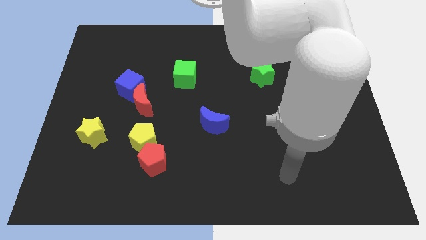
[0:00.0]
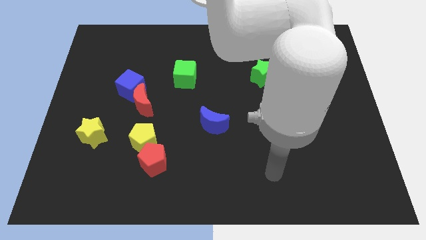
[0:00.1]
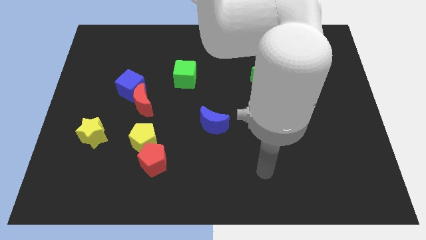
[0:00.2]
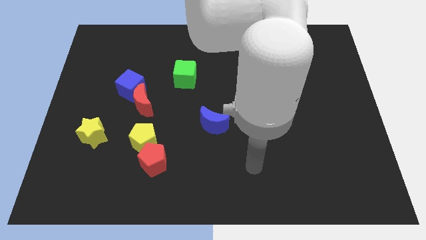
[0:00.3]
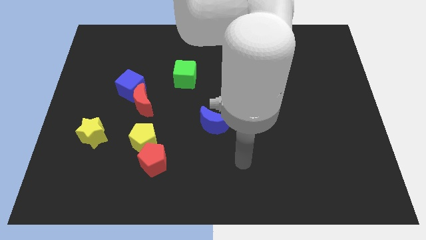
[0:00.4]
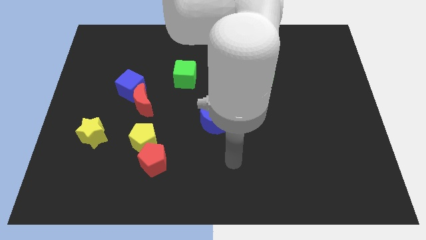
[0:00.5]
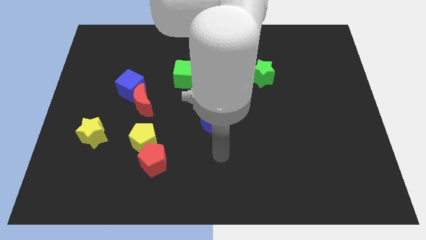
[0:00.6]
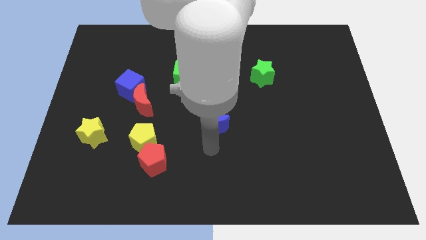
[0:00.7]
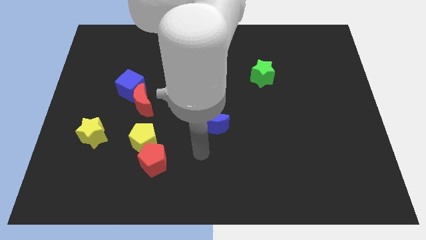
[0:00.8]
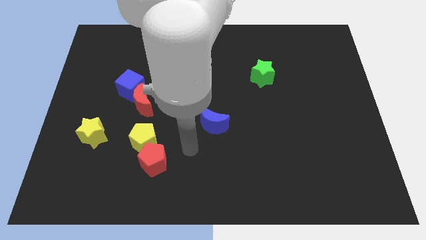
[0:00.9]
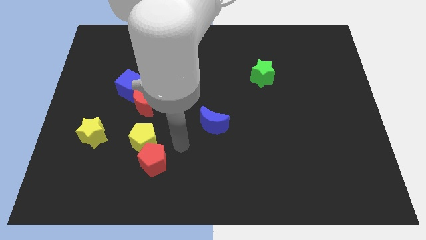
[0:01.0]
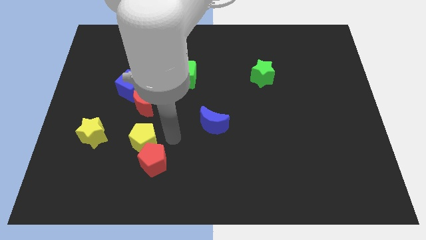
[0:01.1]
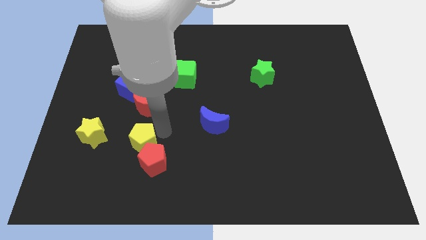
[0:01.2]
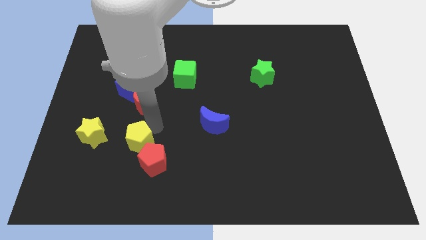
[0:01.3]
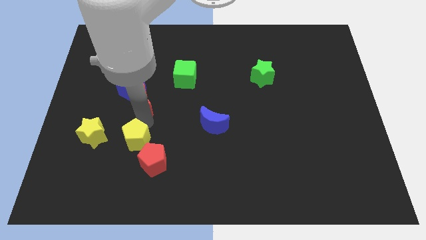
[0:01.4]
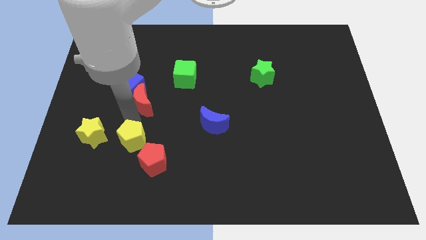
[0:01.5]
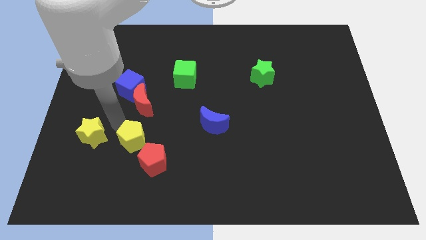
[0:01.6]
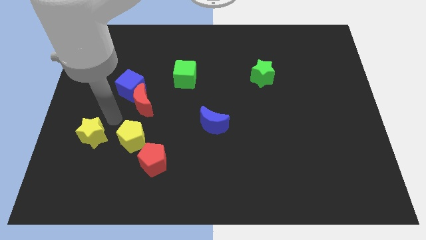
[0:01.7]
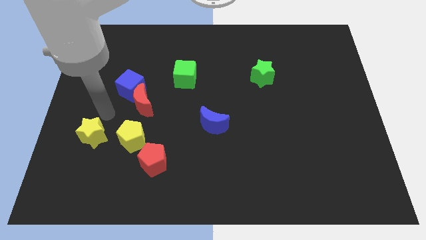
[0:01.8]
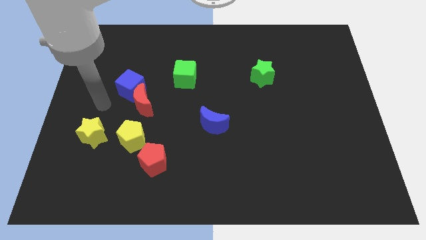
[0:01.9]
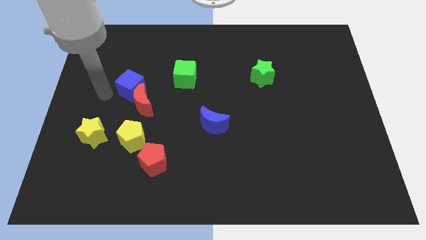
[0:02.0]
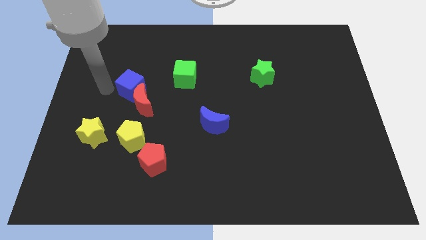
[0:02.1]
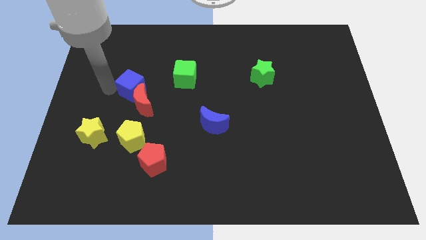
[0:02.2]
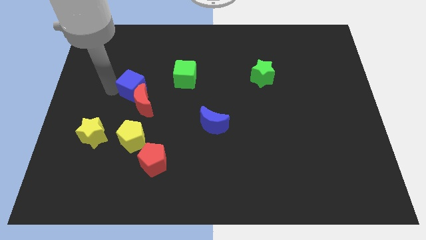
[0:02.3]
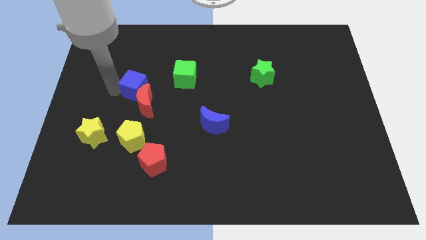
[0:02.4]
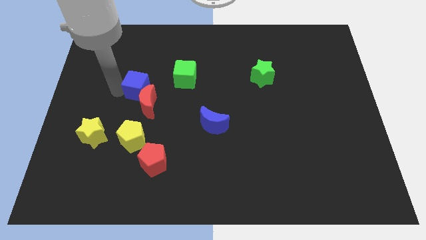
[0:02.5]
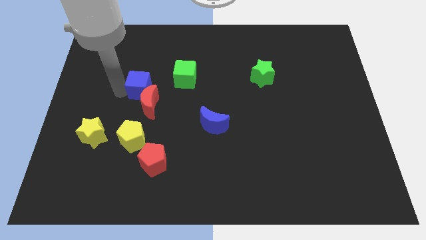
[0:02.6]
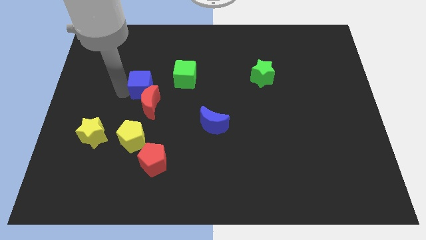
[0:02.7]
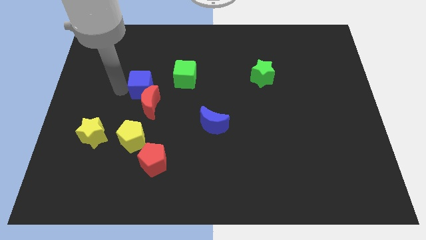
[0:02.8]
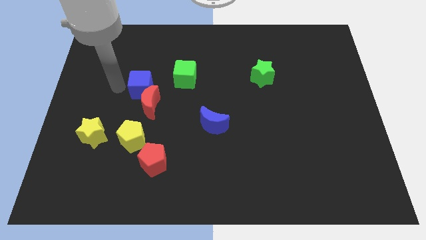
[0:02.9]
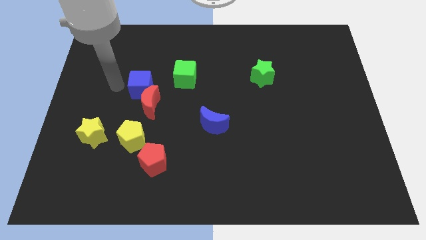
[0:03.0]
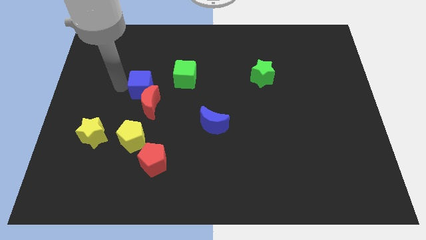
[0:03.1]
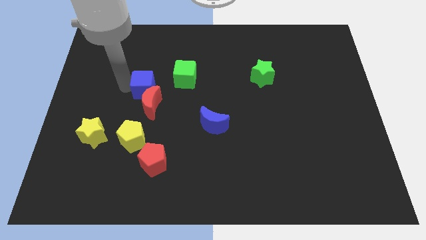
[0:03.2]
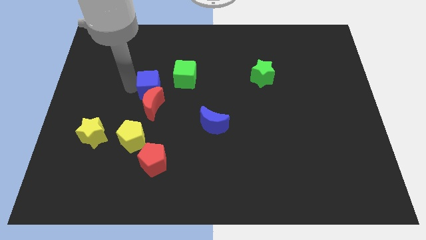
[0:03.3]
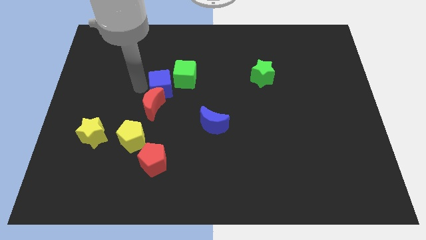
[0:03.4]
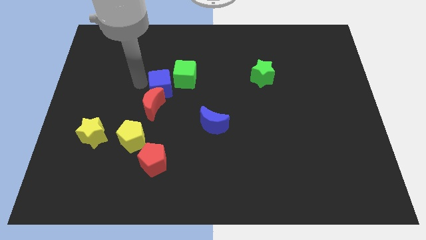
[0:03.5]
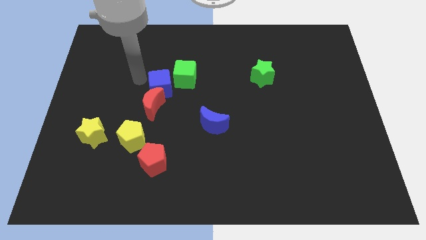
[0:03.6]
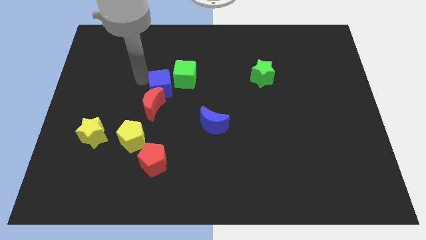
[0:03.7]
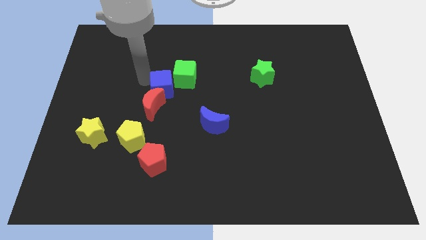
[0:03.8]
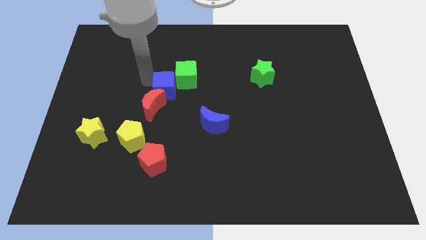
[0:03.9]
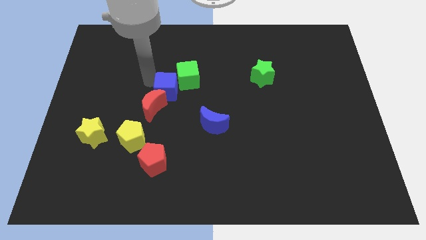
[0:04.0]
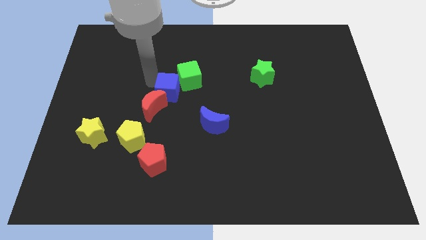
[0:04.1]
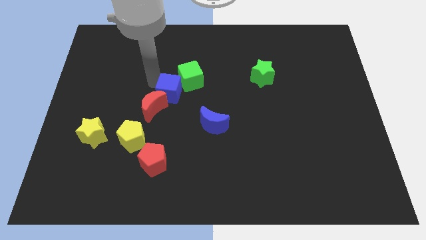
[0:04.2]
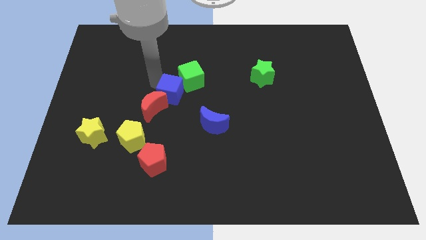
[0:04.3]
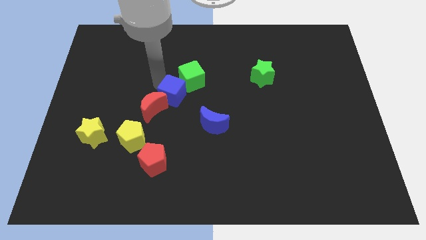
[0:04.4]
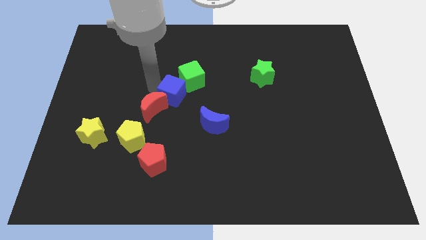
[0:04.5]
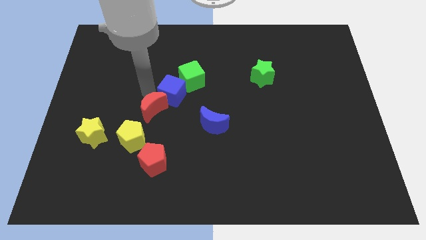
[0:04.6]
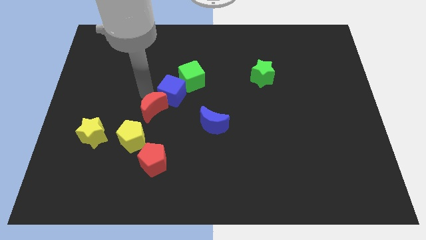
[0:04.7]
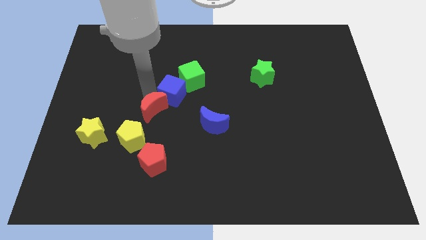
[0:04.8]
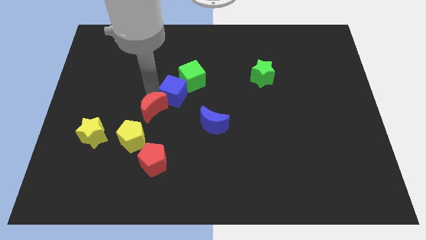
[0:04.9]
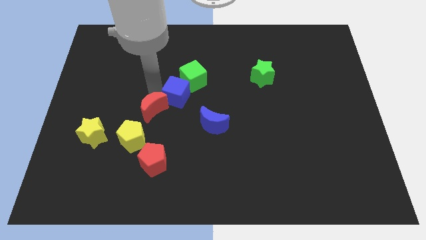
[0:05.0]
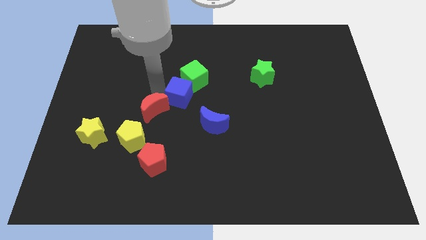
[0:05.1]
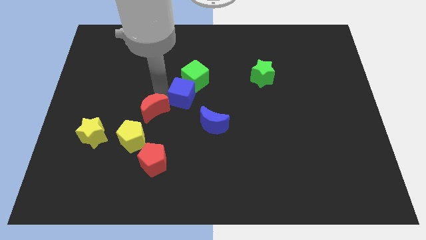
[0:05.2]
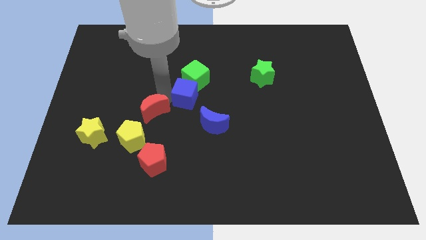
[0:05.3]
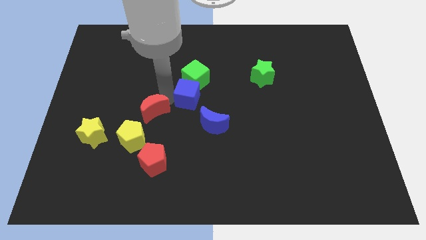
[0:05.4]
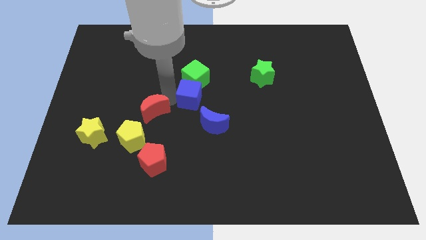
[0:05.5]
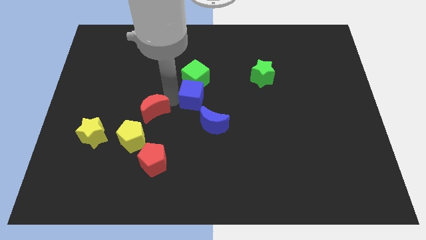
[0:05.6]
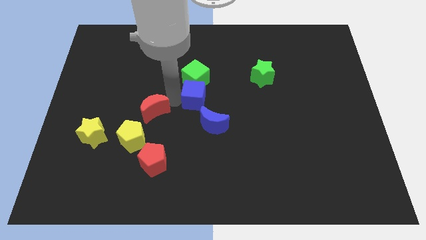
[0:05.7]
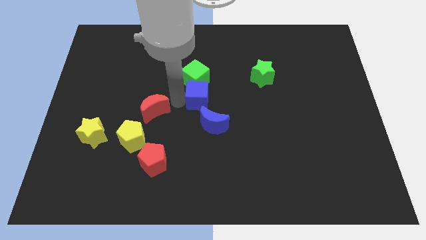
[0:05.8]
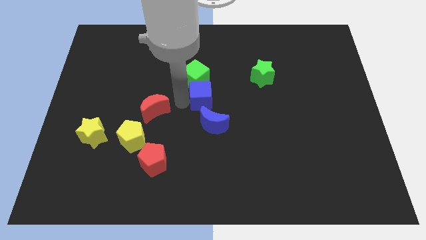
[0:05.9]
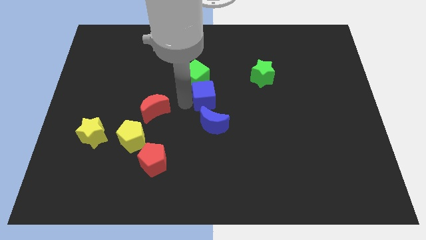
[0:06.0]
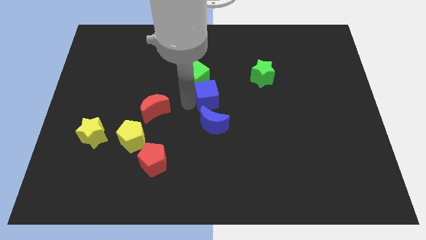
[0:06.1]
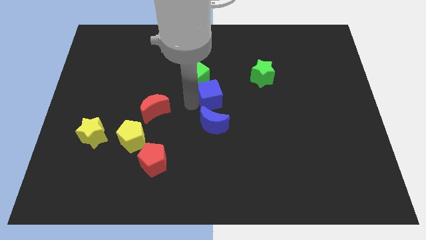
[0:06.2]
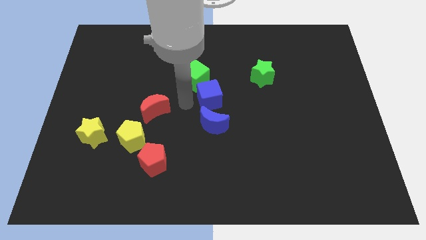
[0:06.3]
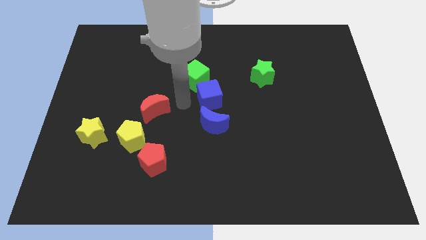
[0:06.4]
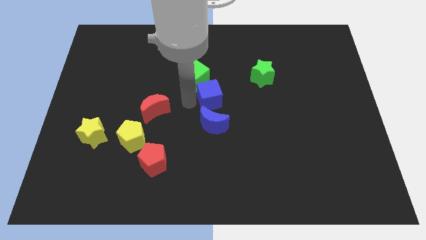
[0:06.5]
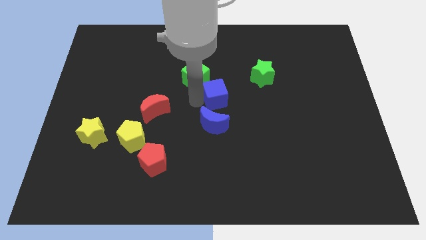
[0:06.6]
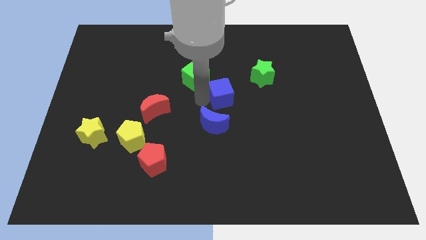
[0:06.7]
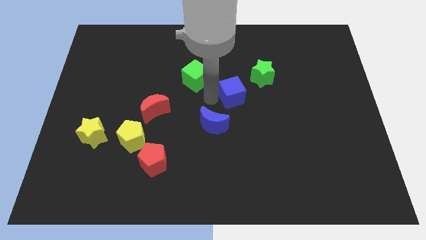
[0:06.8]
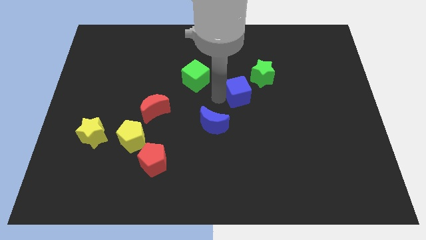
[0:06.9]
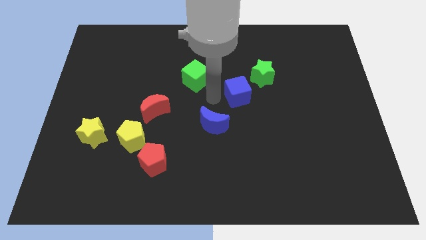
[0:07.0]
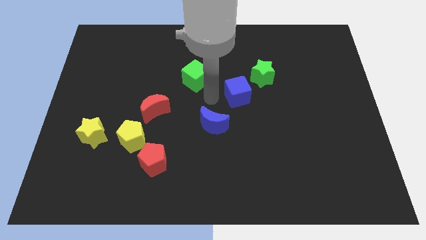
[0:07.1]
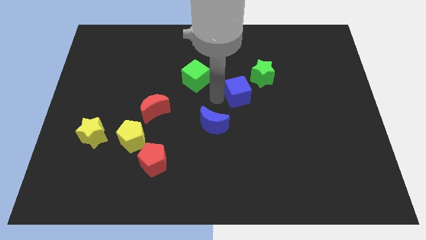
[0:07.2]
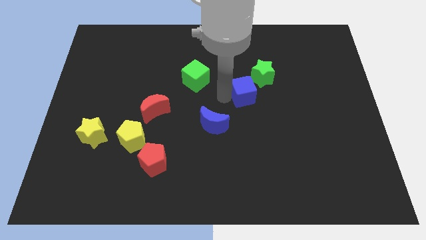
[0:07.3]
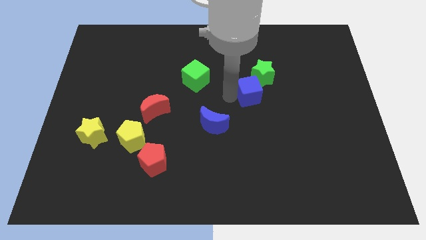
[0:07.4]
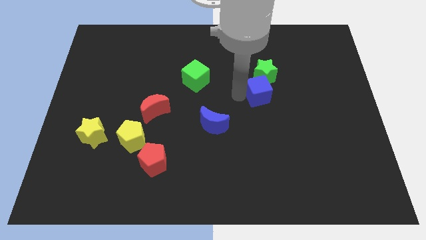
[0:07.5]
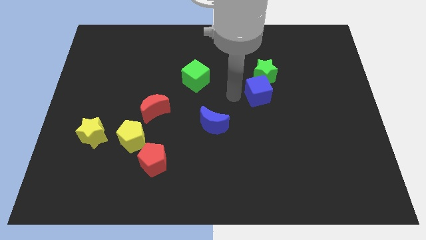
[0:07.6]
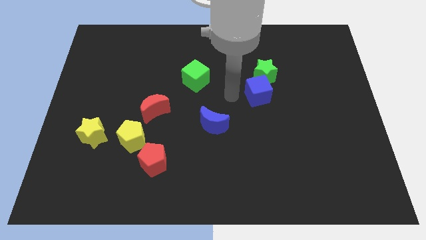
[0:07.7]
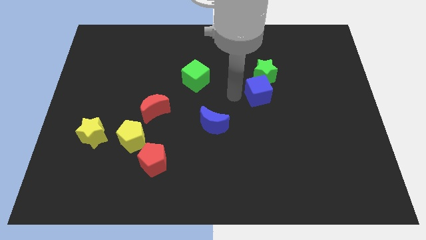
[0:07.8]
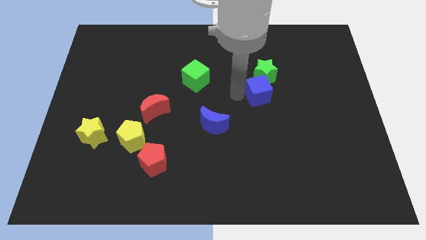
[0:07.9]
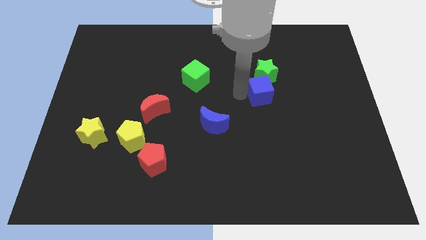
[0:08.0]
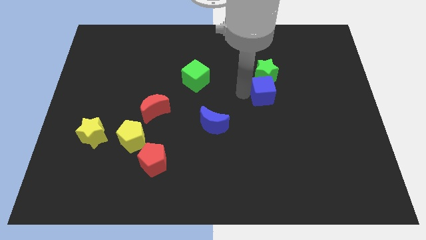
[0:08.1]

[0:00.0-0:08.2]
slide the blue cube diagonally down and to the right of the green star

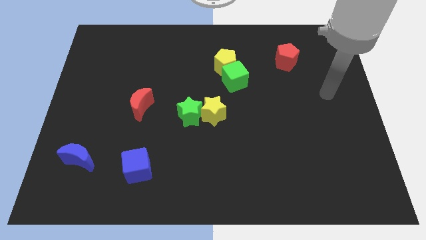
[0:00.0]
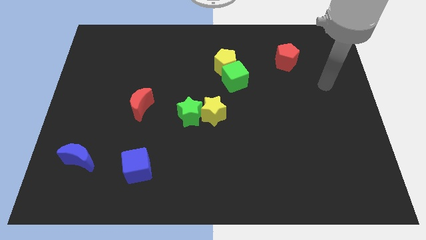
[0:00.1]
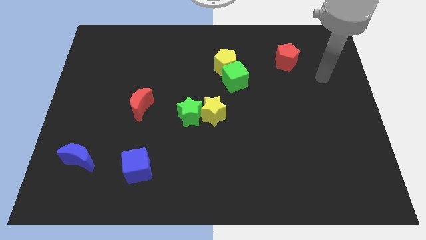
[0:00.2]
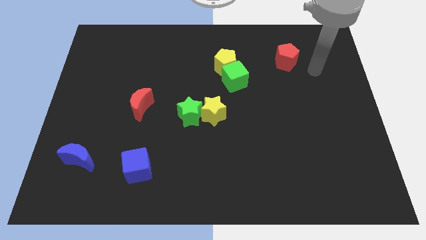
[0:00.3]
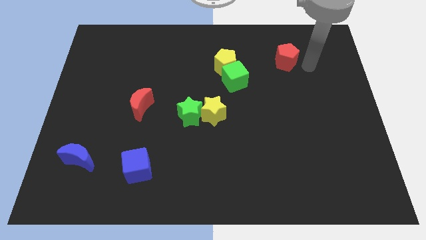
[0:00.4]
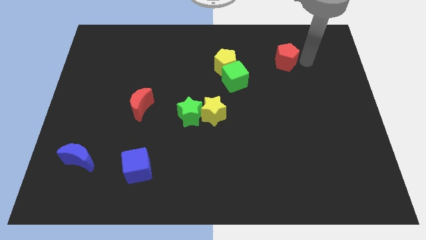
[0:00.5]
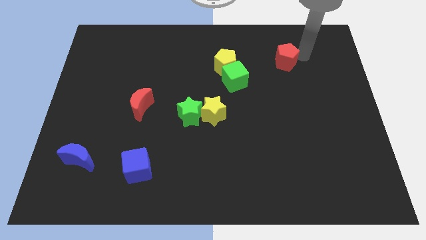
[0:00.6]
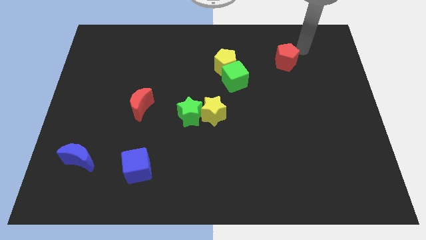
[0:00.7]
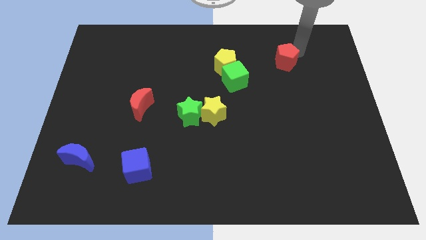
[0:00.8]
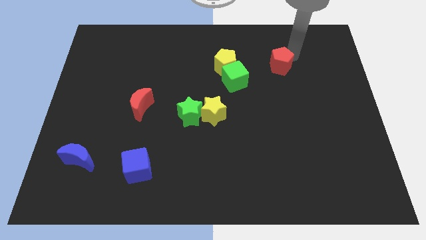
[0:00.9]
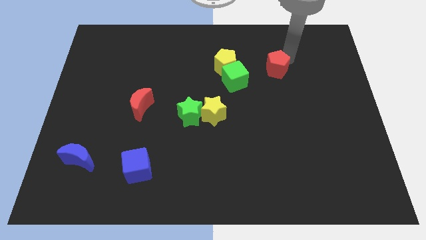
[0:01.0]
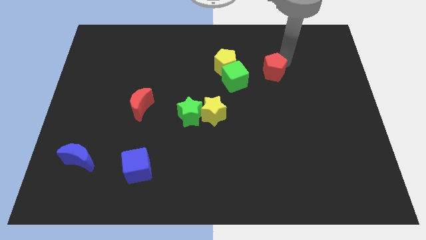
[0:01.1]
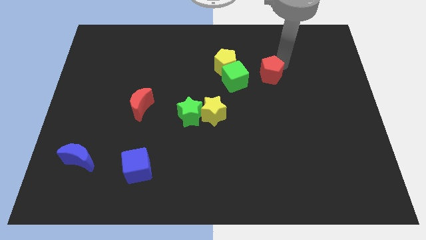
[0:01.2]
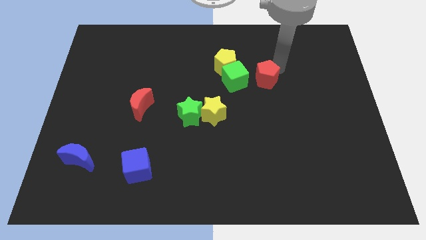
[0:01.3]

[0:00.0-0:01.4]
push the red pentagon to the bottom right of the yellow pentagon
